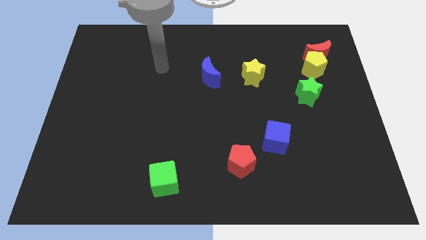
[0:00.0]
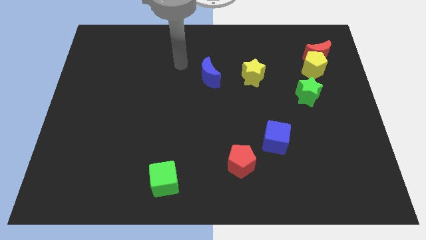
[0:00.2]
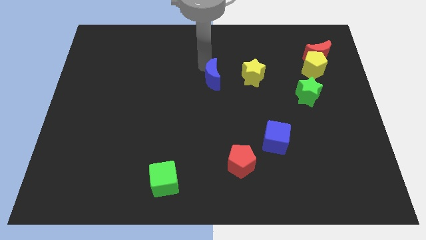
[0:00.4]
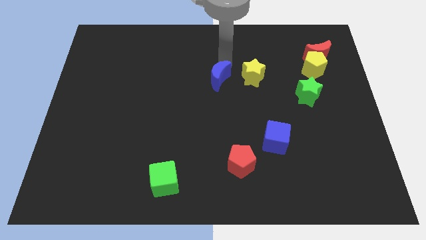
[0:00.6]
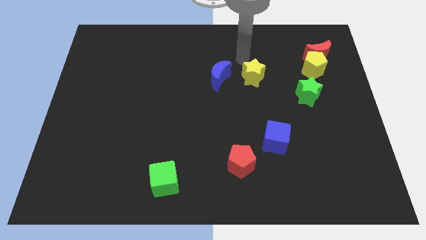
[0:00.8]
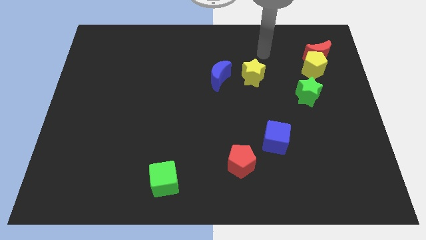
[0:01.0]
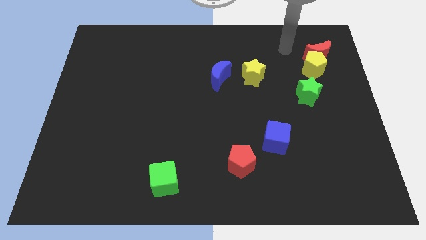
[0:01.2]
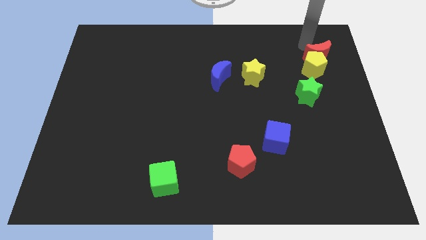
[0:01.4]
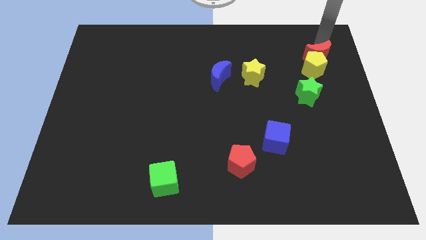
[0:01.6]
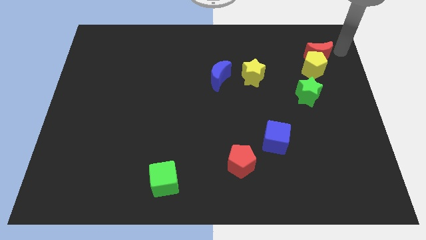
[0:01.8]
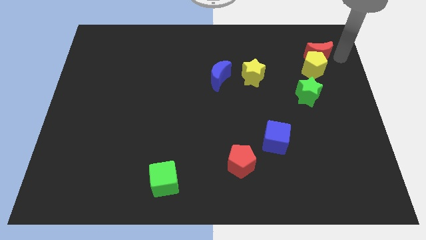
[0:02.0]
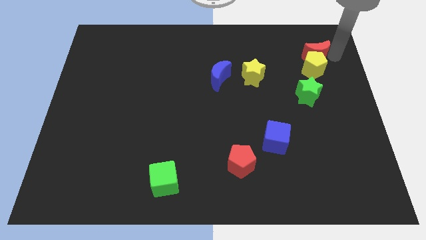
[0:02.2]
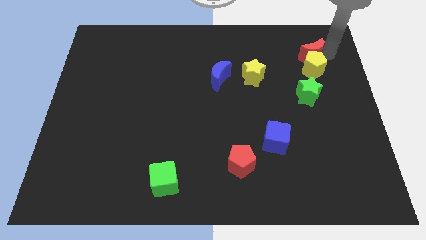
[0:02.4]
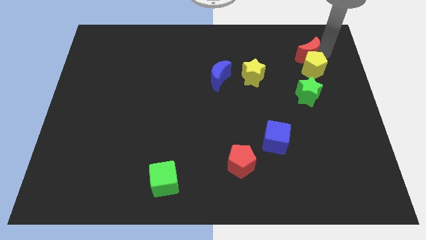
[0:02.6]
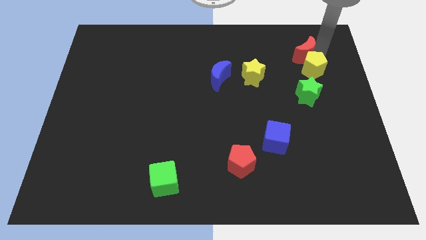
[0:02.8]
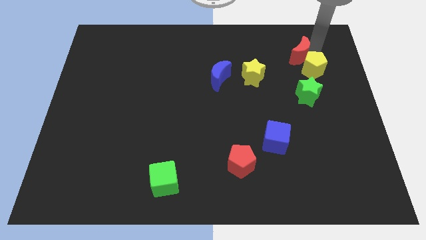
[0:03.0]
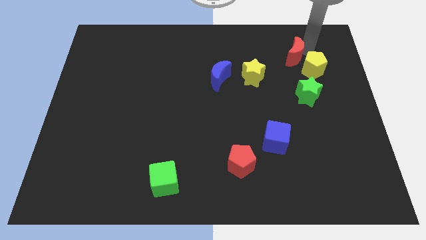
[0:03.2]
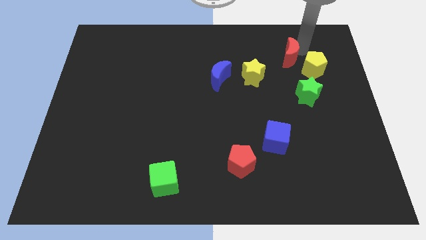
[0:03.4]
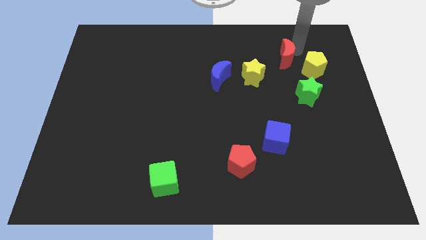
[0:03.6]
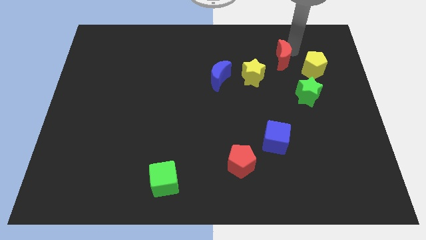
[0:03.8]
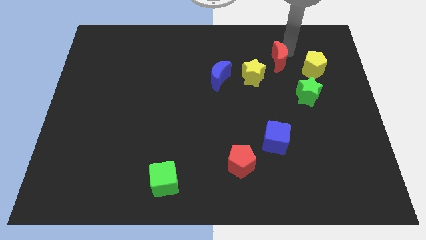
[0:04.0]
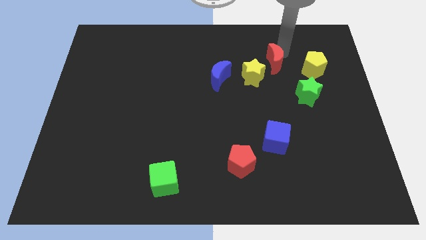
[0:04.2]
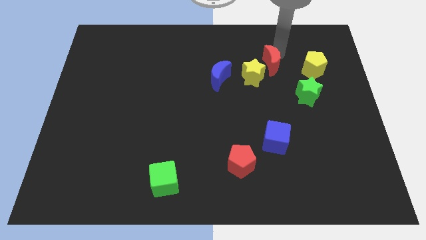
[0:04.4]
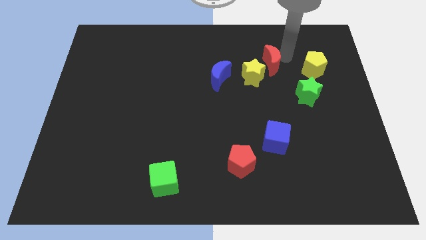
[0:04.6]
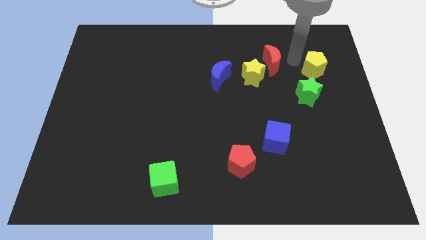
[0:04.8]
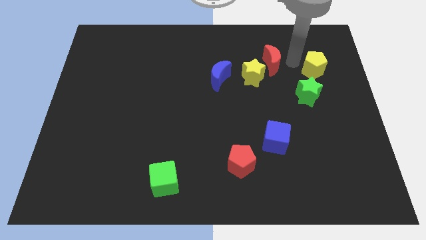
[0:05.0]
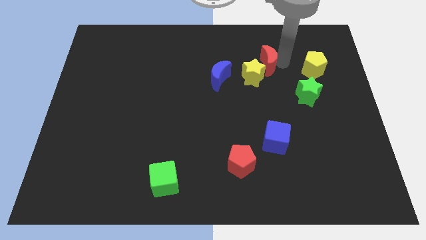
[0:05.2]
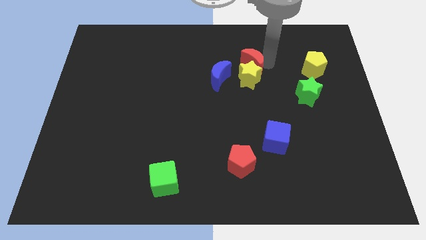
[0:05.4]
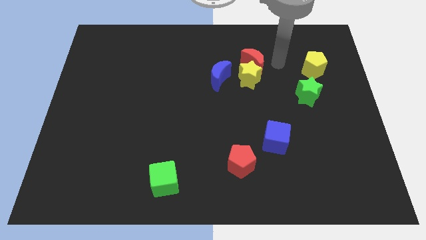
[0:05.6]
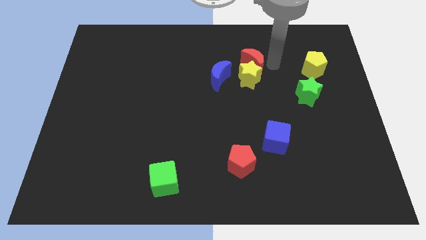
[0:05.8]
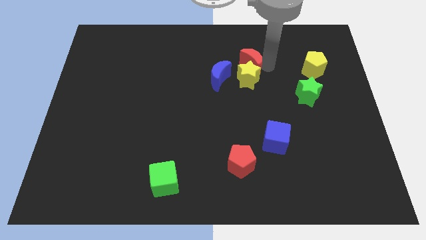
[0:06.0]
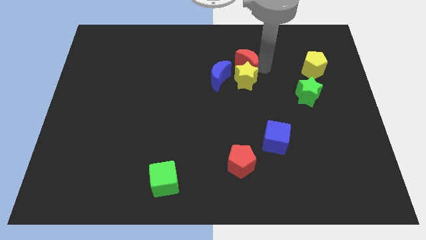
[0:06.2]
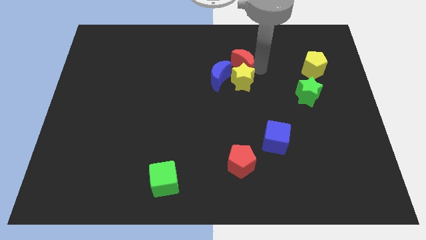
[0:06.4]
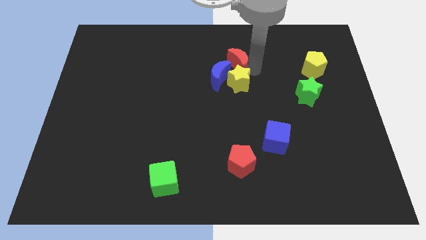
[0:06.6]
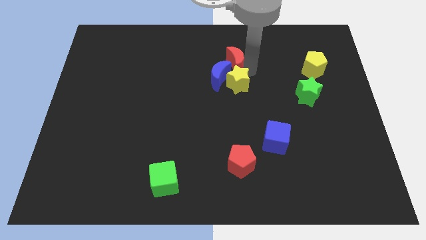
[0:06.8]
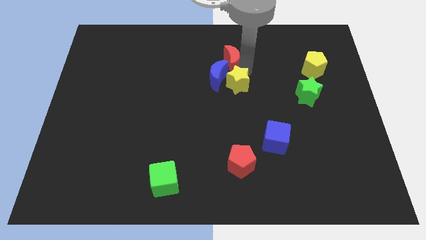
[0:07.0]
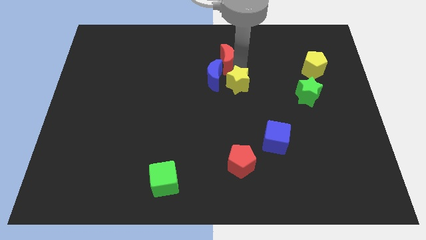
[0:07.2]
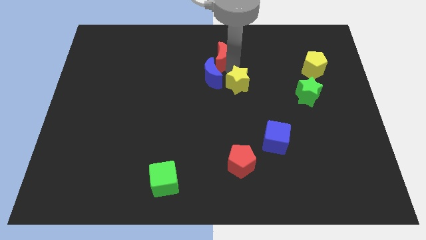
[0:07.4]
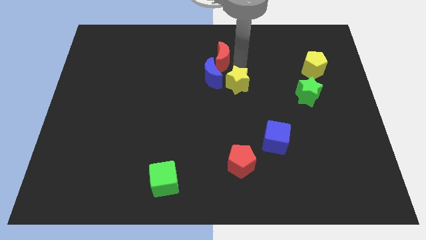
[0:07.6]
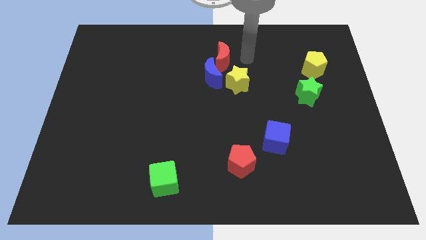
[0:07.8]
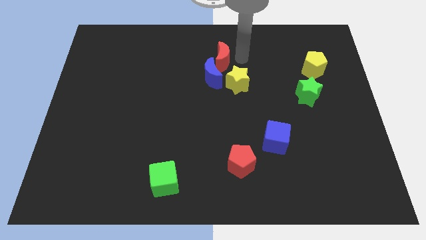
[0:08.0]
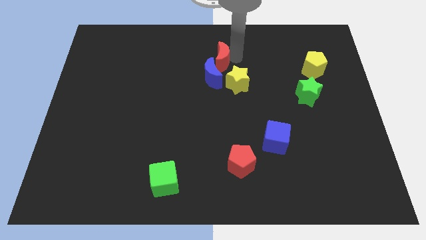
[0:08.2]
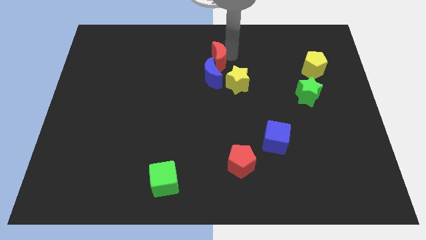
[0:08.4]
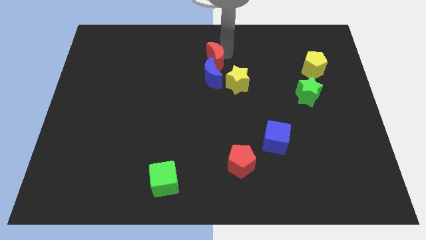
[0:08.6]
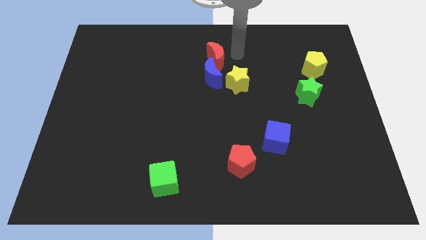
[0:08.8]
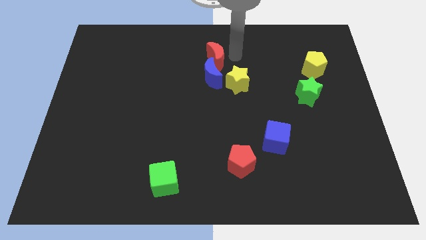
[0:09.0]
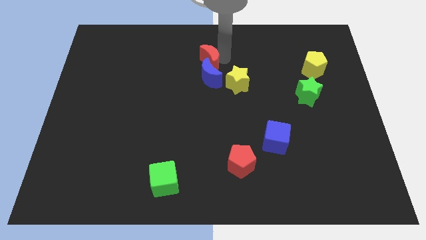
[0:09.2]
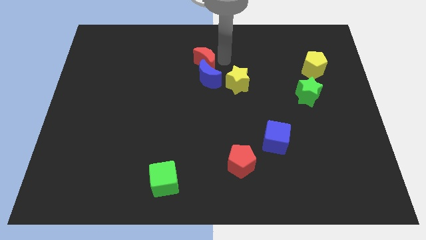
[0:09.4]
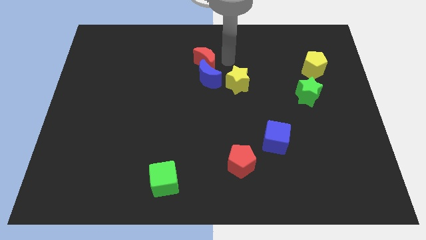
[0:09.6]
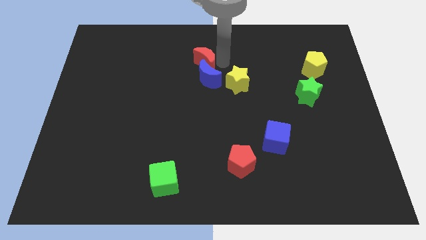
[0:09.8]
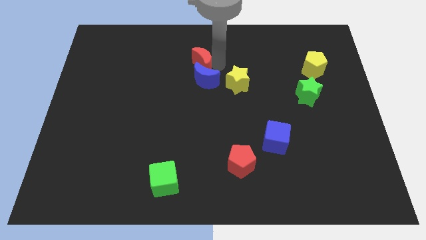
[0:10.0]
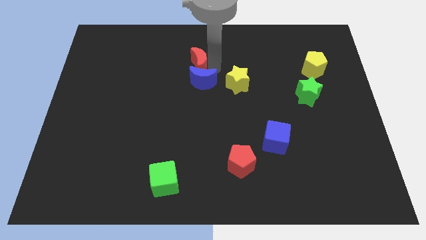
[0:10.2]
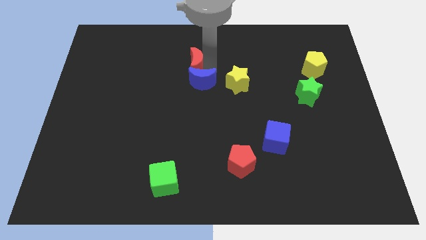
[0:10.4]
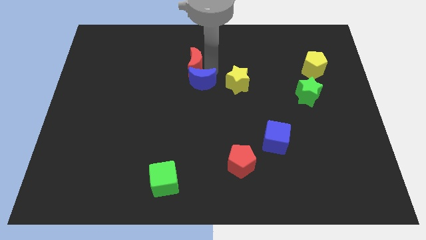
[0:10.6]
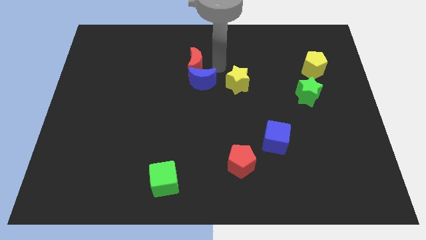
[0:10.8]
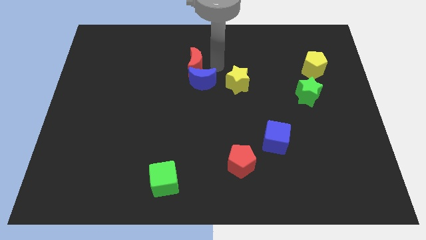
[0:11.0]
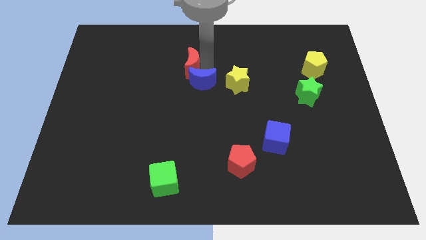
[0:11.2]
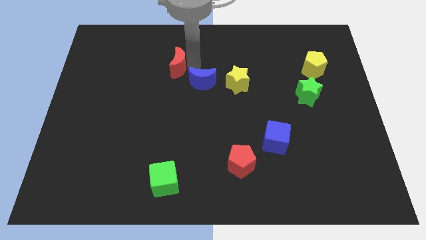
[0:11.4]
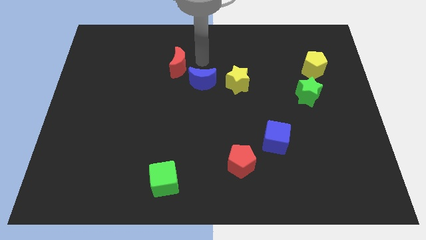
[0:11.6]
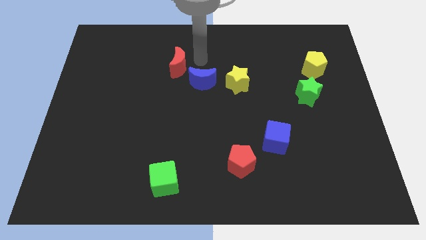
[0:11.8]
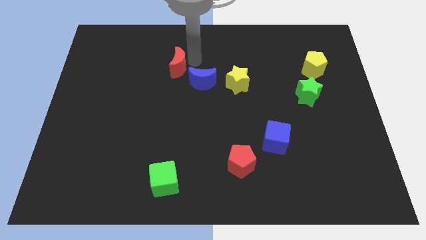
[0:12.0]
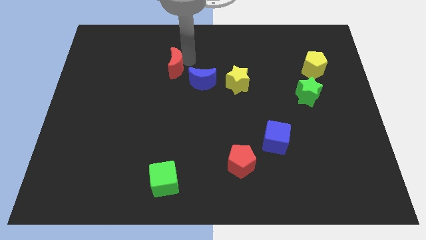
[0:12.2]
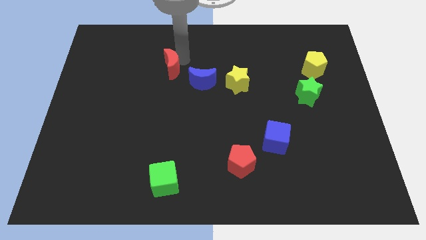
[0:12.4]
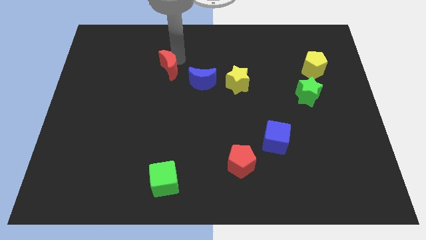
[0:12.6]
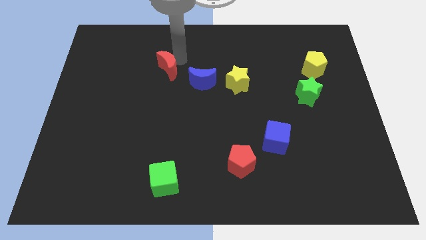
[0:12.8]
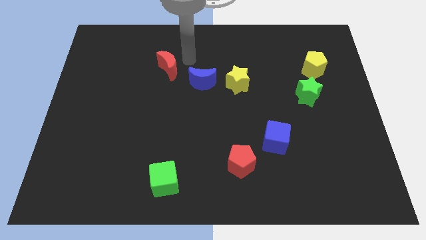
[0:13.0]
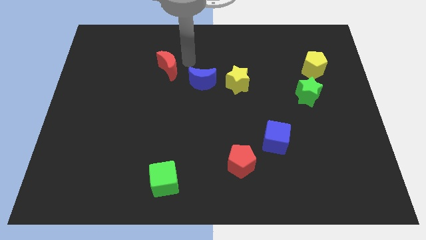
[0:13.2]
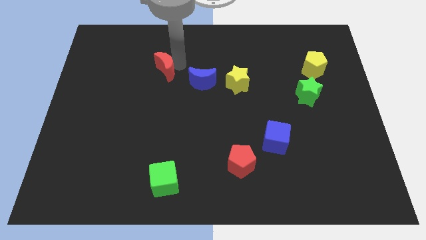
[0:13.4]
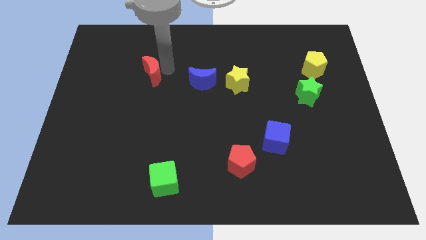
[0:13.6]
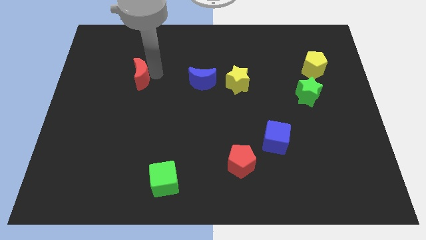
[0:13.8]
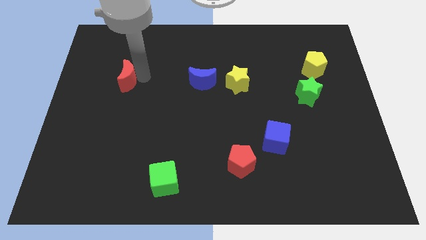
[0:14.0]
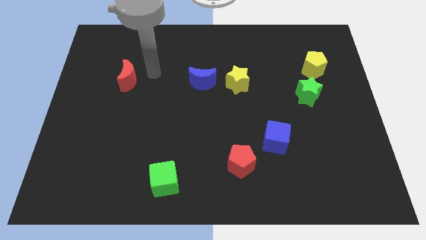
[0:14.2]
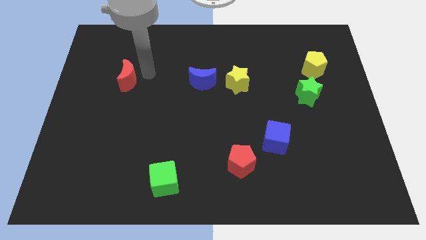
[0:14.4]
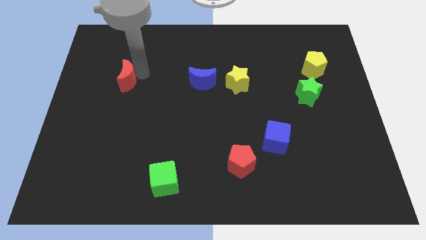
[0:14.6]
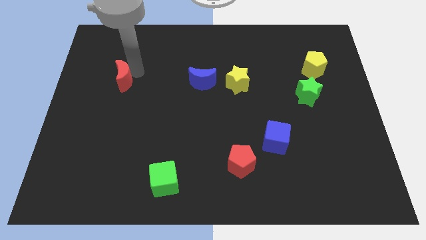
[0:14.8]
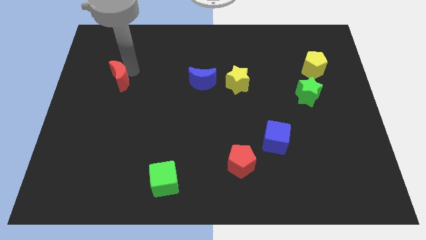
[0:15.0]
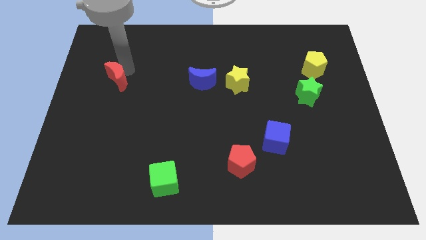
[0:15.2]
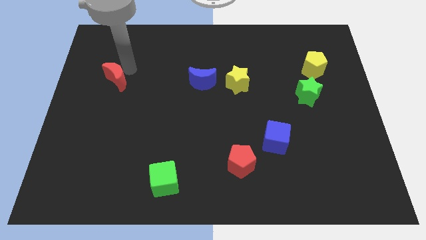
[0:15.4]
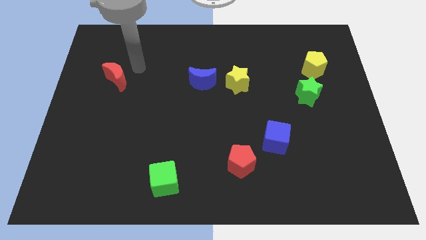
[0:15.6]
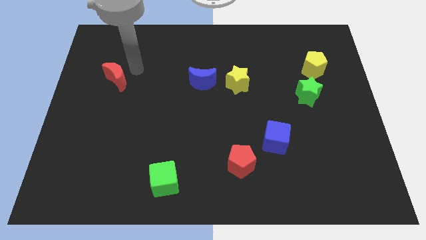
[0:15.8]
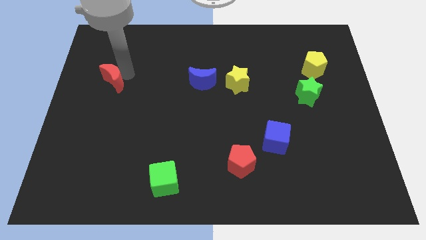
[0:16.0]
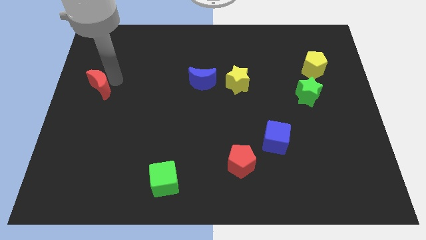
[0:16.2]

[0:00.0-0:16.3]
put the red moon to the left side
